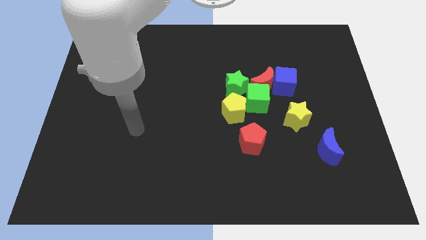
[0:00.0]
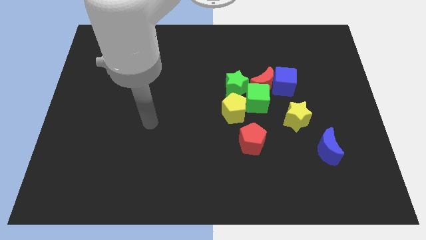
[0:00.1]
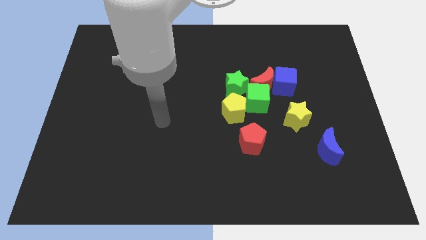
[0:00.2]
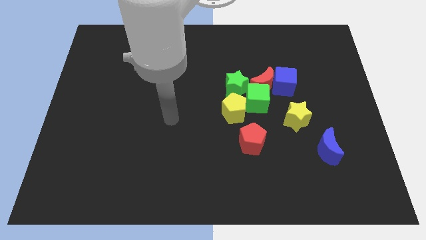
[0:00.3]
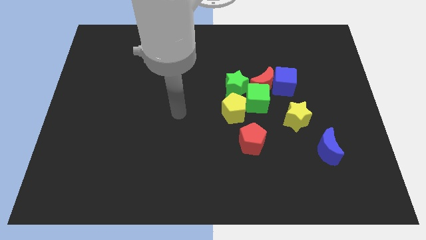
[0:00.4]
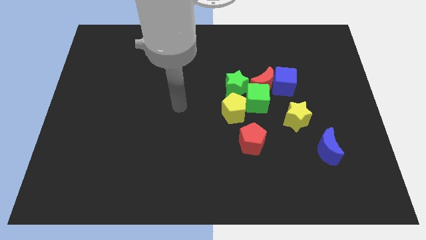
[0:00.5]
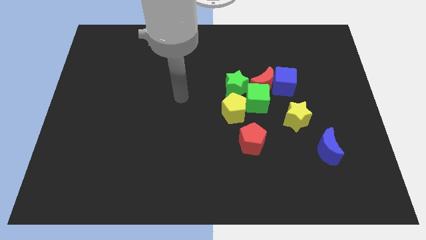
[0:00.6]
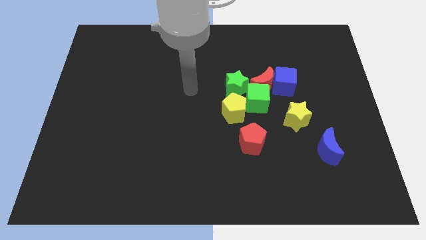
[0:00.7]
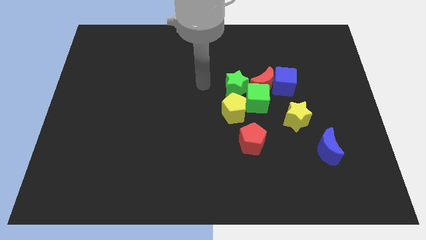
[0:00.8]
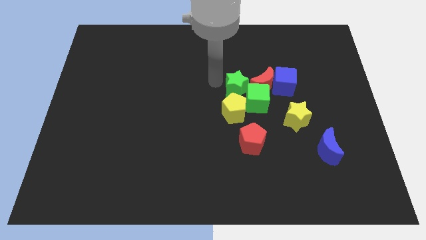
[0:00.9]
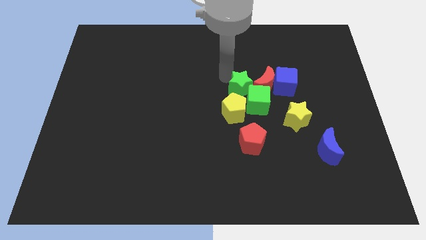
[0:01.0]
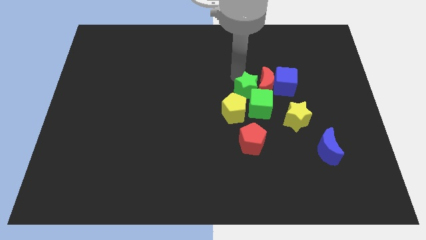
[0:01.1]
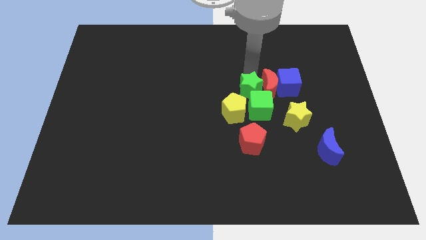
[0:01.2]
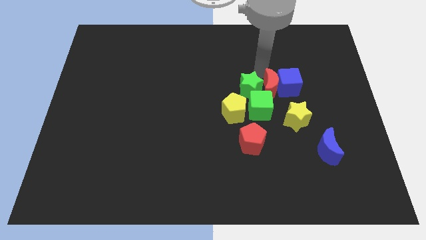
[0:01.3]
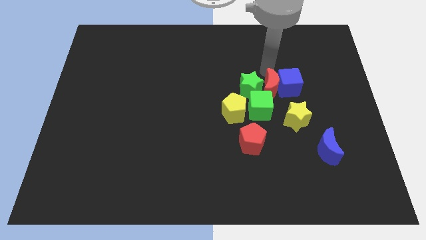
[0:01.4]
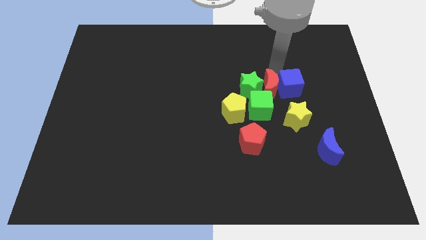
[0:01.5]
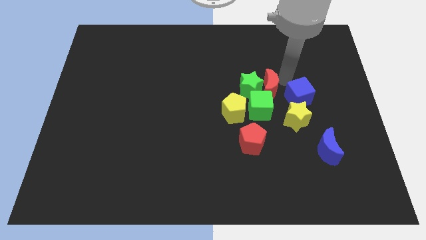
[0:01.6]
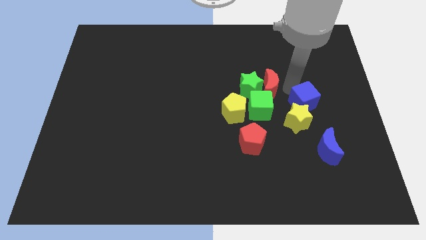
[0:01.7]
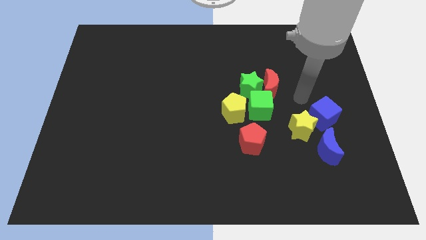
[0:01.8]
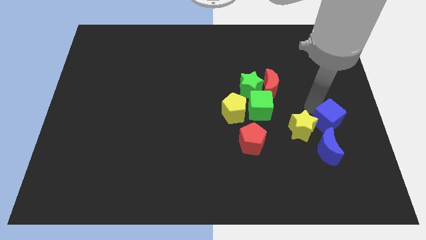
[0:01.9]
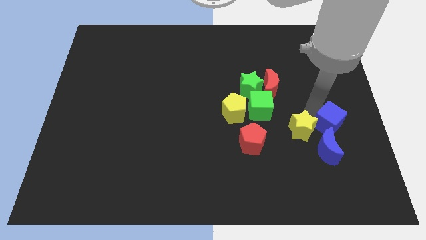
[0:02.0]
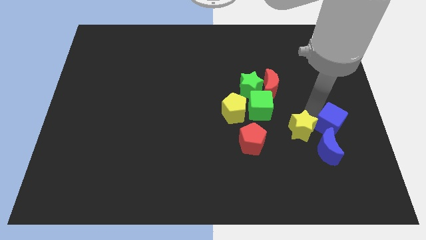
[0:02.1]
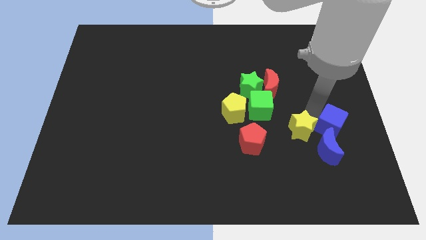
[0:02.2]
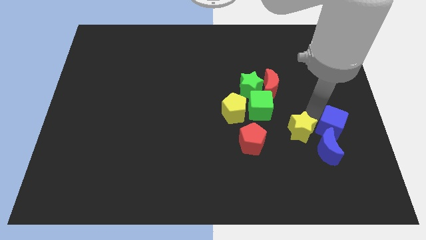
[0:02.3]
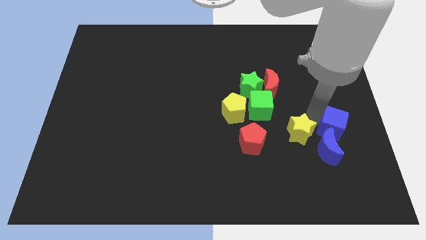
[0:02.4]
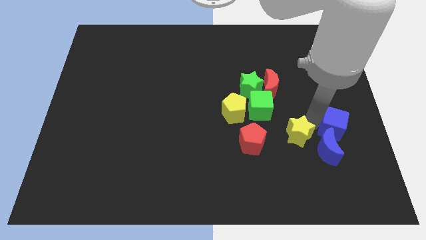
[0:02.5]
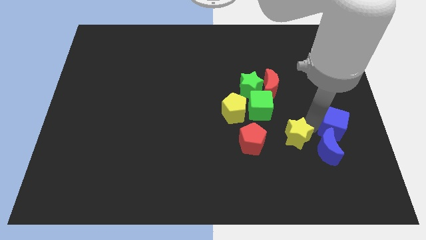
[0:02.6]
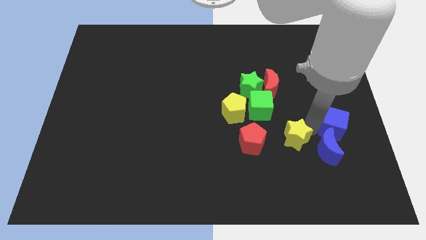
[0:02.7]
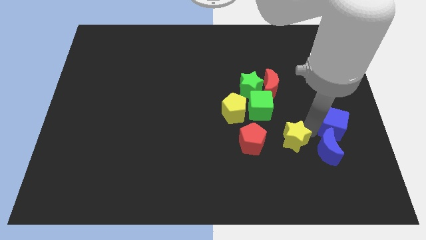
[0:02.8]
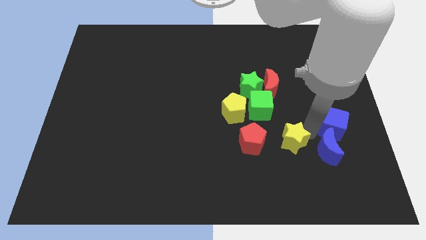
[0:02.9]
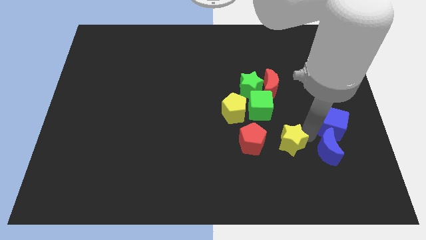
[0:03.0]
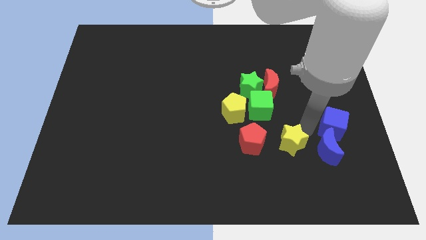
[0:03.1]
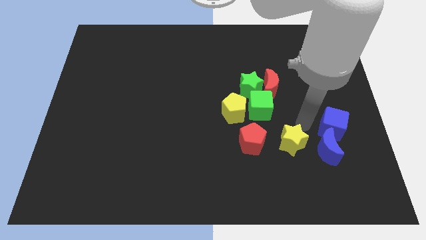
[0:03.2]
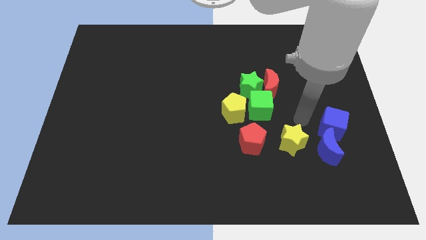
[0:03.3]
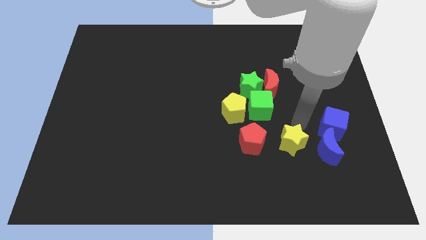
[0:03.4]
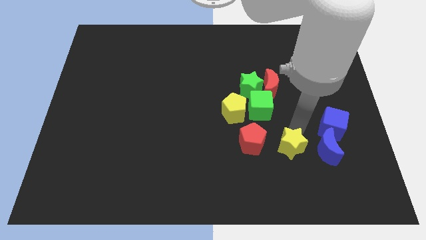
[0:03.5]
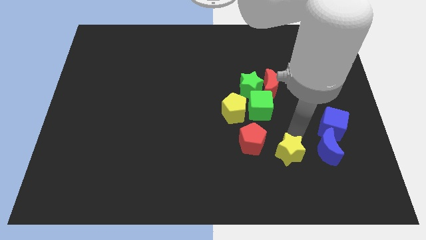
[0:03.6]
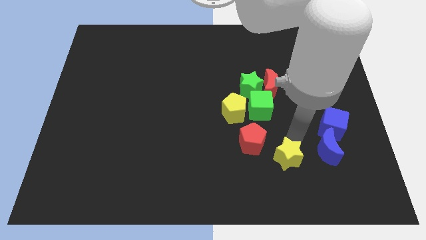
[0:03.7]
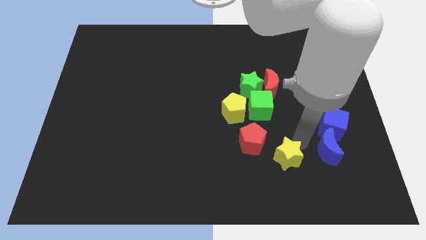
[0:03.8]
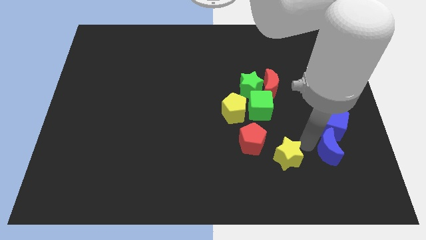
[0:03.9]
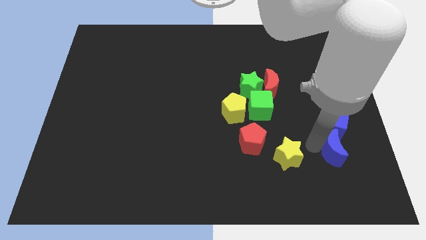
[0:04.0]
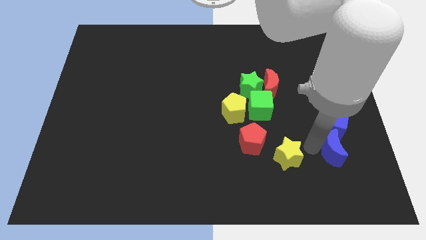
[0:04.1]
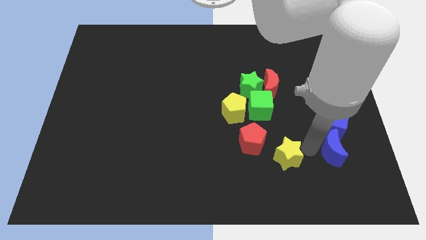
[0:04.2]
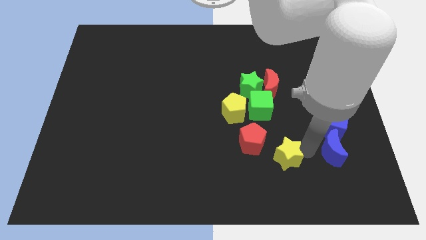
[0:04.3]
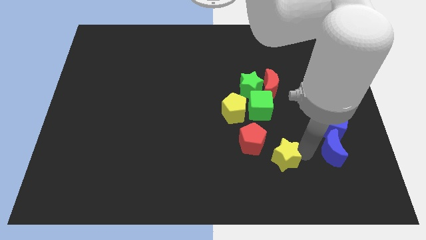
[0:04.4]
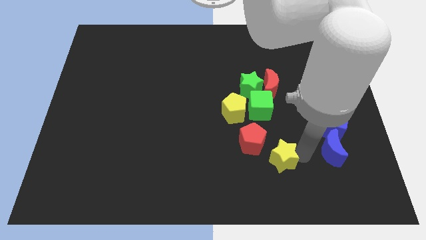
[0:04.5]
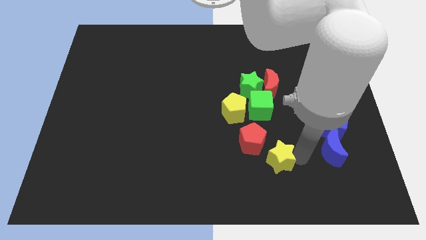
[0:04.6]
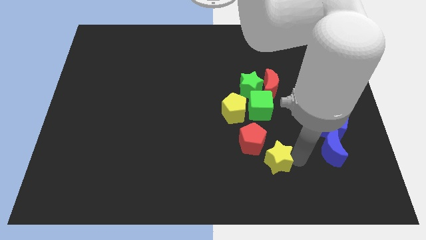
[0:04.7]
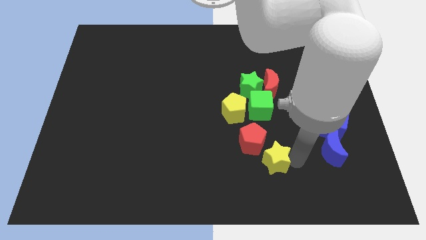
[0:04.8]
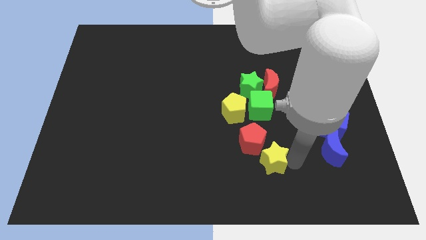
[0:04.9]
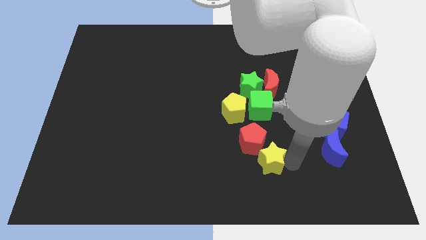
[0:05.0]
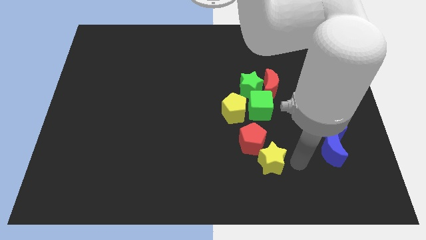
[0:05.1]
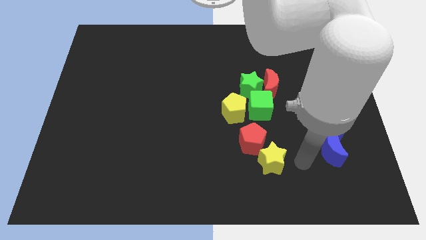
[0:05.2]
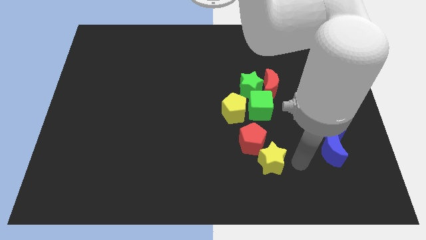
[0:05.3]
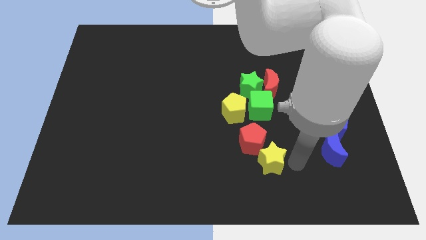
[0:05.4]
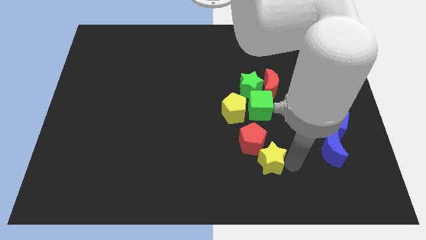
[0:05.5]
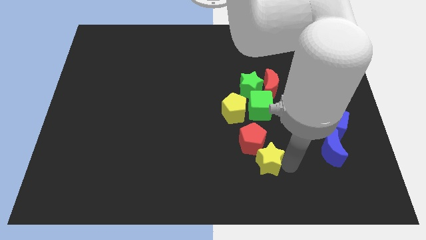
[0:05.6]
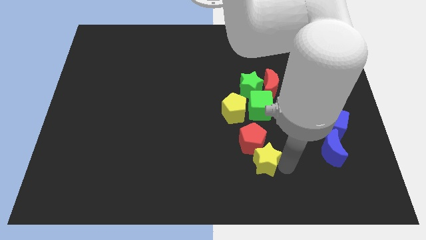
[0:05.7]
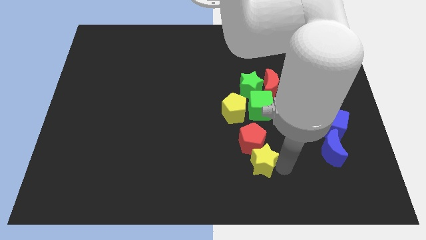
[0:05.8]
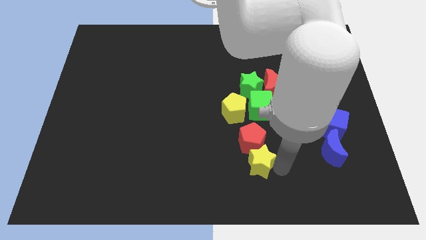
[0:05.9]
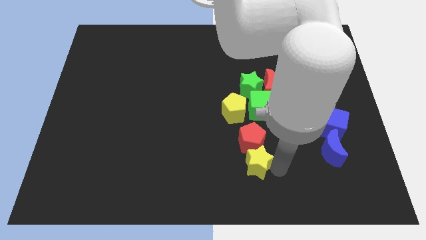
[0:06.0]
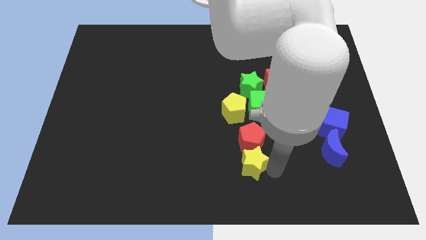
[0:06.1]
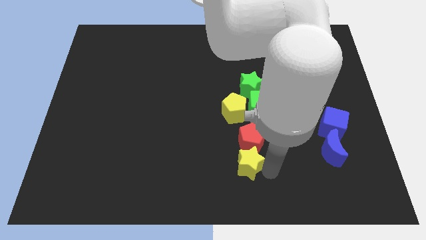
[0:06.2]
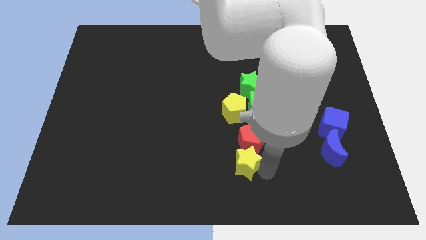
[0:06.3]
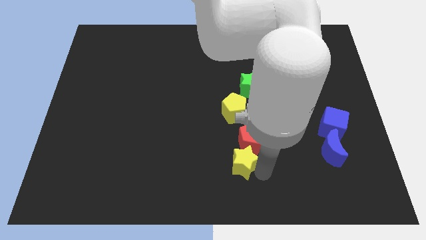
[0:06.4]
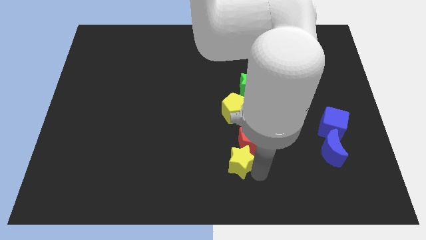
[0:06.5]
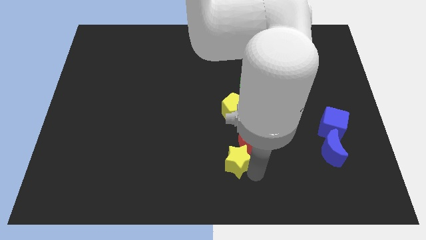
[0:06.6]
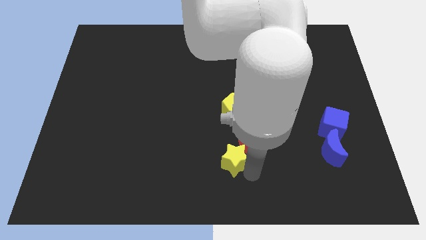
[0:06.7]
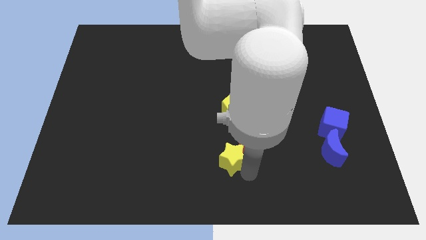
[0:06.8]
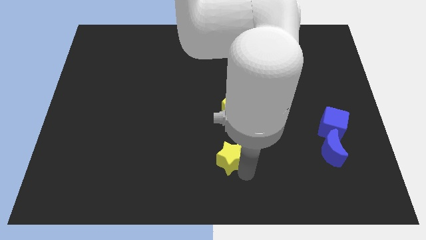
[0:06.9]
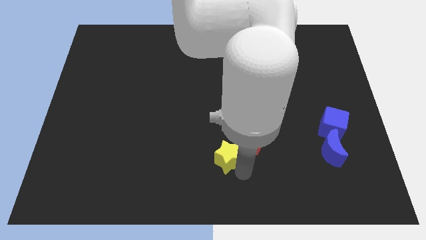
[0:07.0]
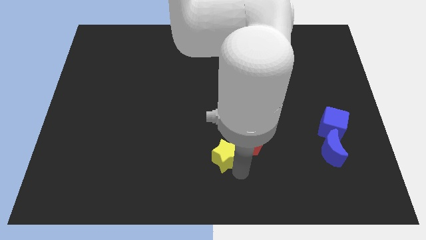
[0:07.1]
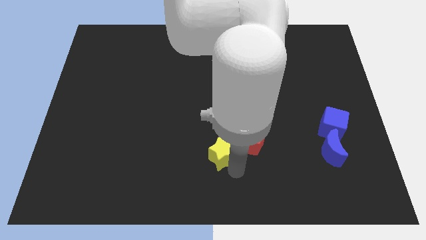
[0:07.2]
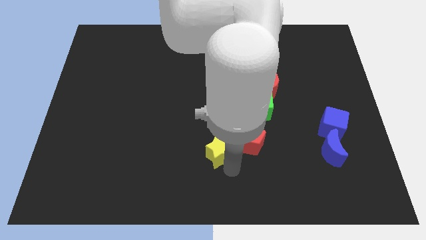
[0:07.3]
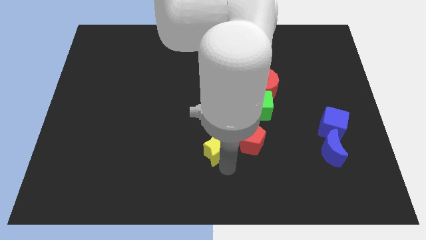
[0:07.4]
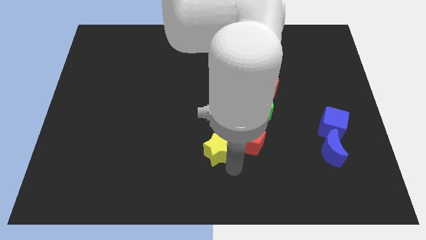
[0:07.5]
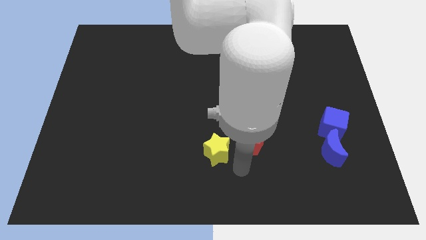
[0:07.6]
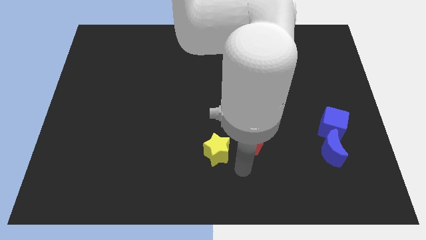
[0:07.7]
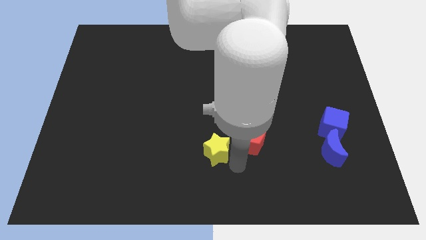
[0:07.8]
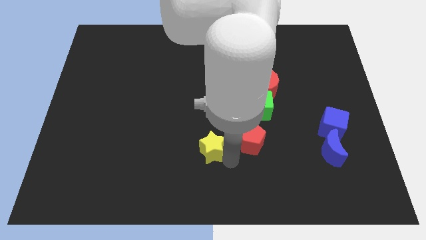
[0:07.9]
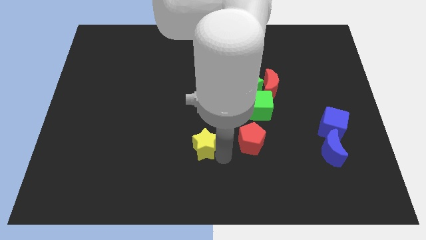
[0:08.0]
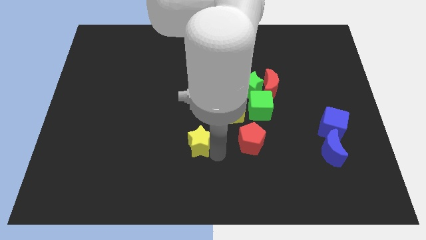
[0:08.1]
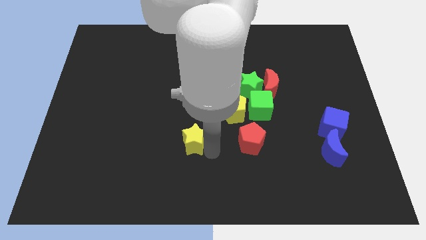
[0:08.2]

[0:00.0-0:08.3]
push the yellow star left
